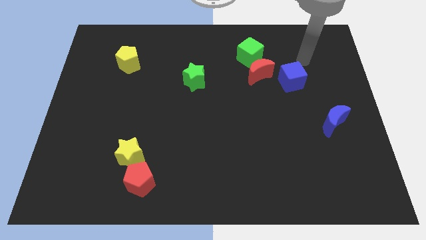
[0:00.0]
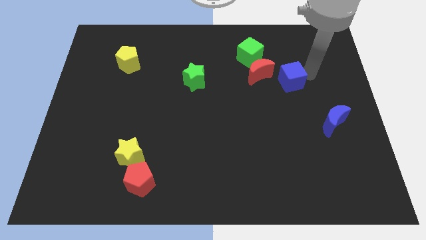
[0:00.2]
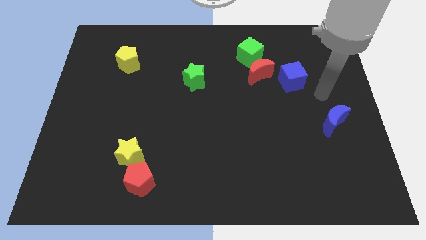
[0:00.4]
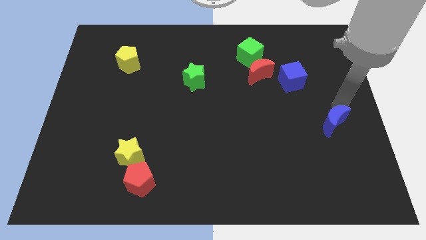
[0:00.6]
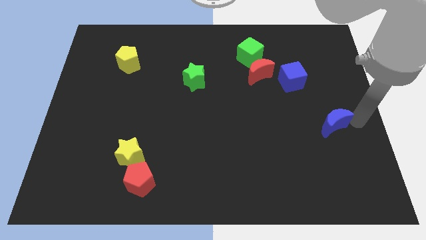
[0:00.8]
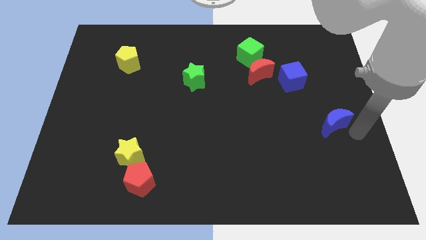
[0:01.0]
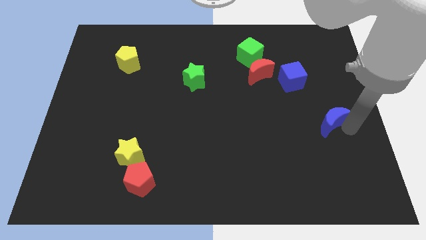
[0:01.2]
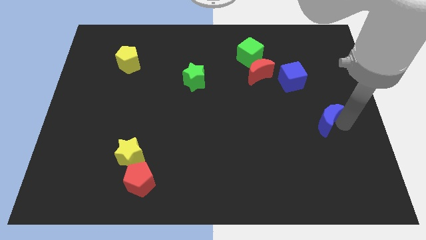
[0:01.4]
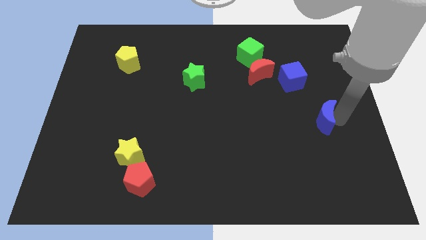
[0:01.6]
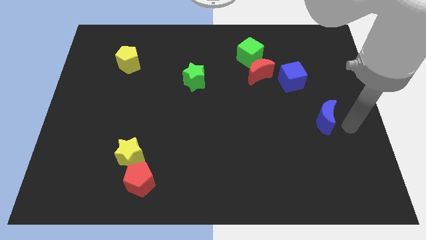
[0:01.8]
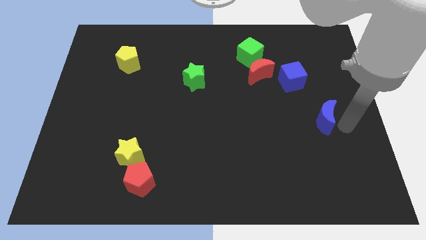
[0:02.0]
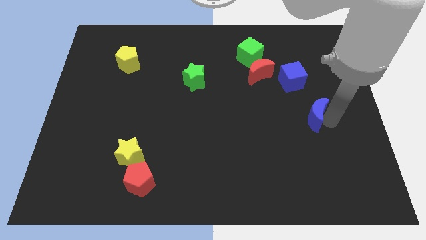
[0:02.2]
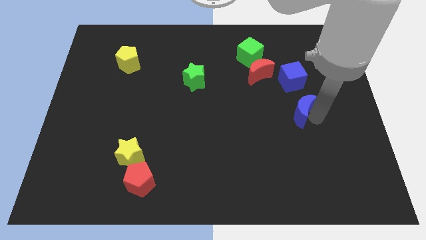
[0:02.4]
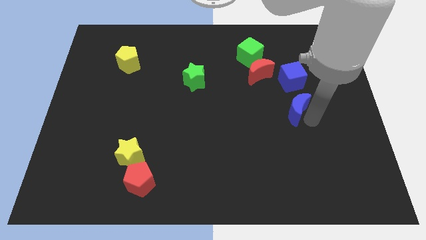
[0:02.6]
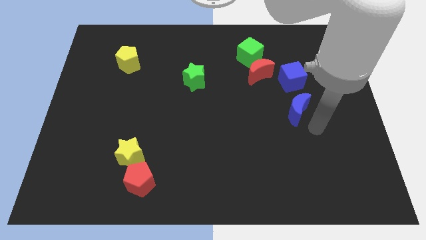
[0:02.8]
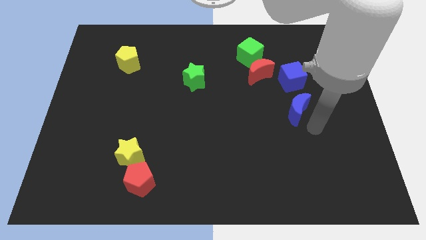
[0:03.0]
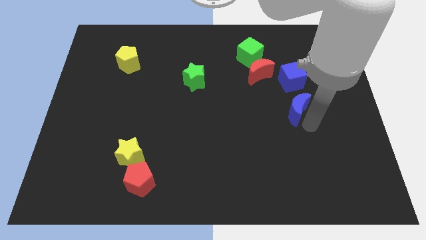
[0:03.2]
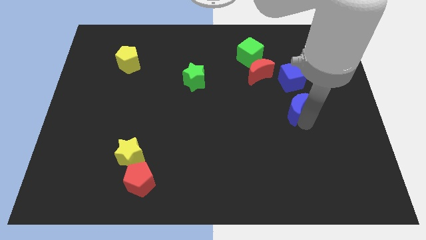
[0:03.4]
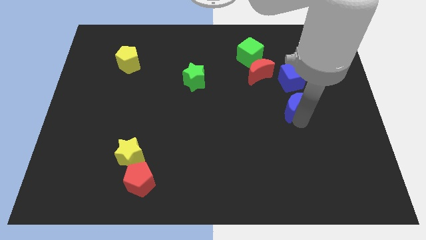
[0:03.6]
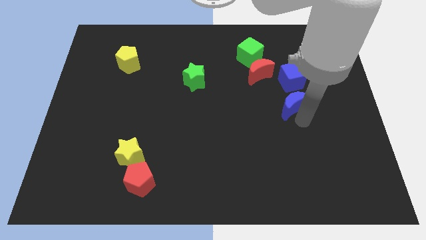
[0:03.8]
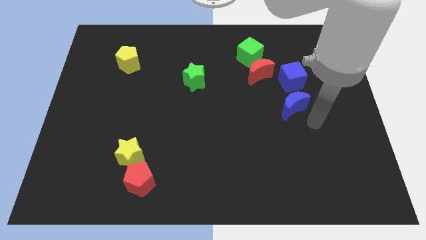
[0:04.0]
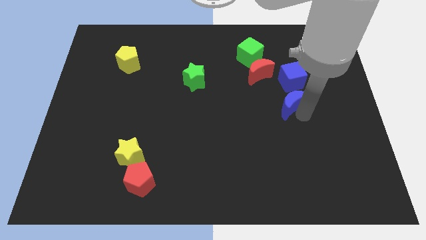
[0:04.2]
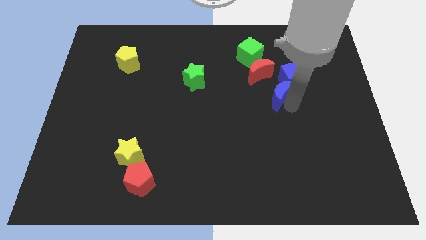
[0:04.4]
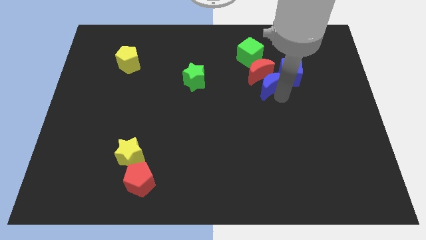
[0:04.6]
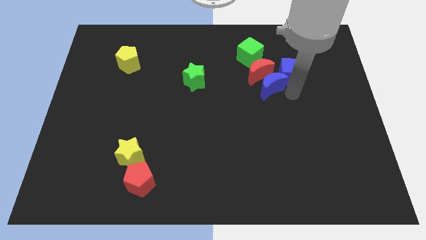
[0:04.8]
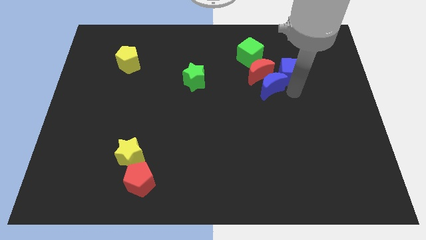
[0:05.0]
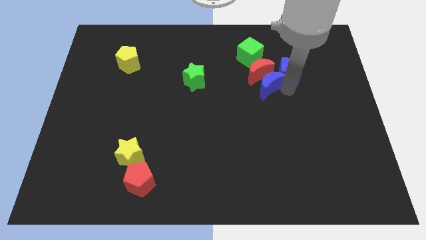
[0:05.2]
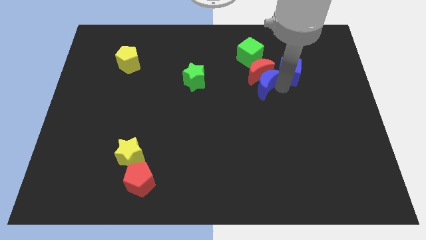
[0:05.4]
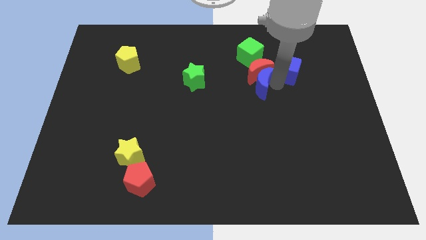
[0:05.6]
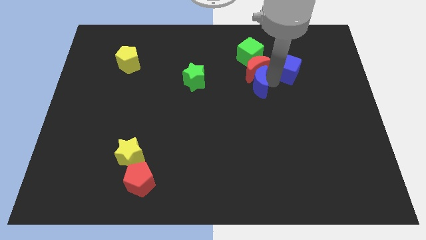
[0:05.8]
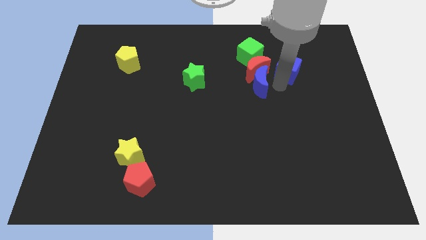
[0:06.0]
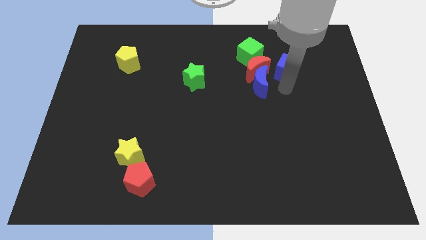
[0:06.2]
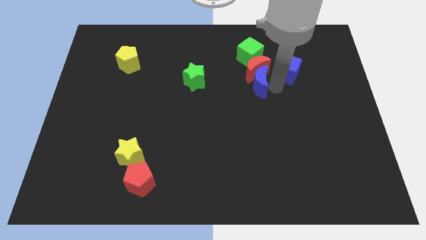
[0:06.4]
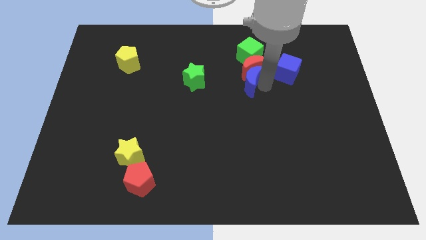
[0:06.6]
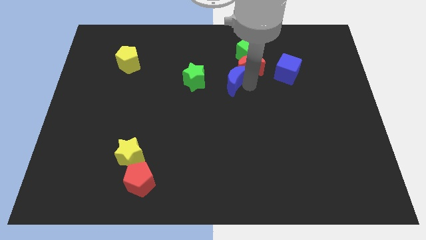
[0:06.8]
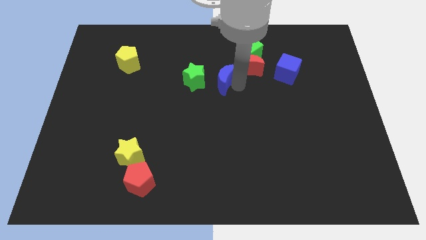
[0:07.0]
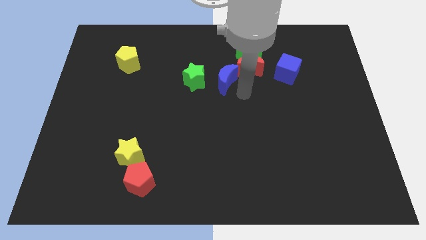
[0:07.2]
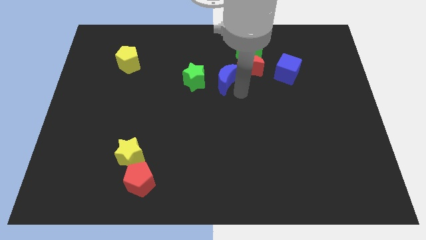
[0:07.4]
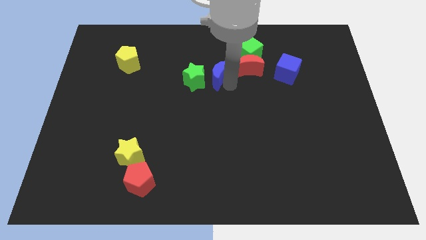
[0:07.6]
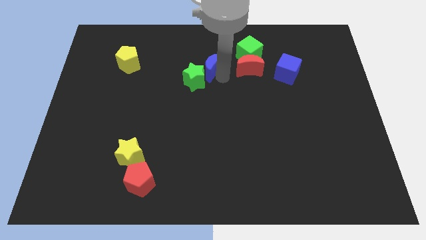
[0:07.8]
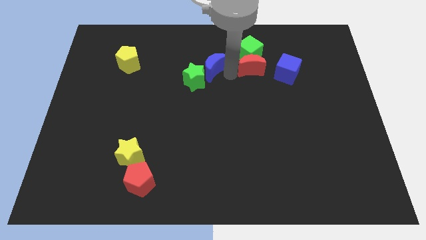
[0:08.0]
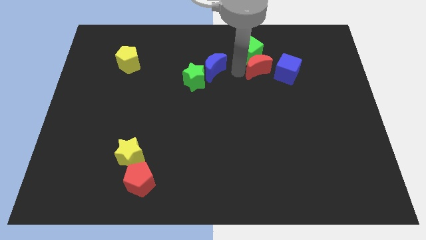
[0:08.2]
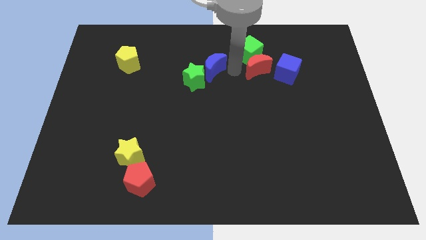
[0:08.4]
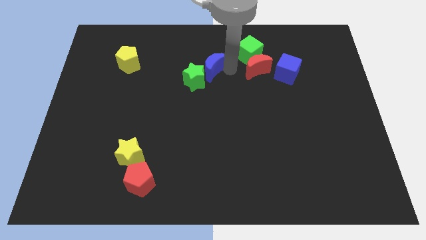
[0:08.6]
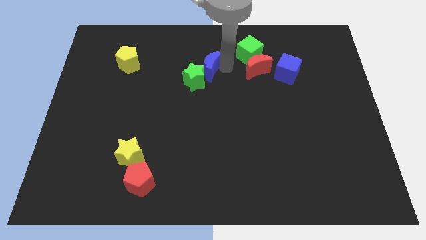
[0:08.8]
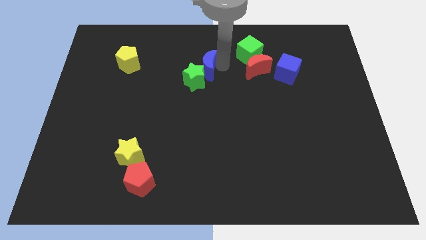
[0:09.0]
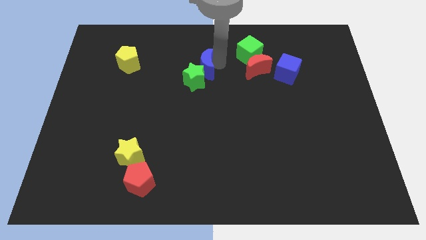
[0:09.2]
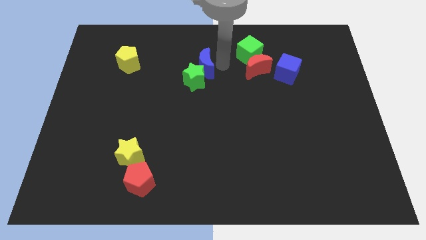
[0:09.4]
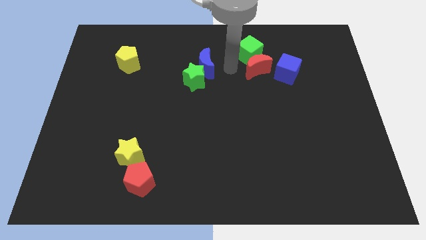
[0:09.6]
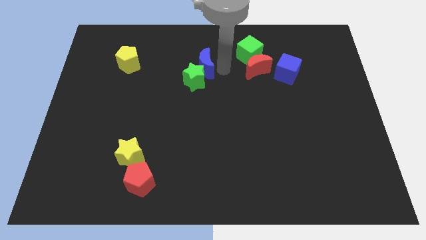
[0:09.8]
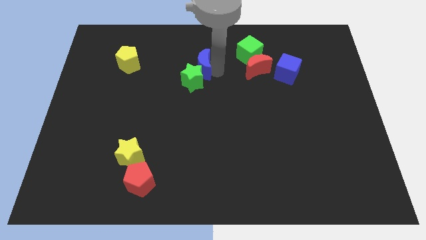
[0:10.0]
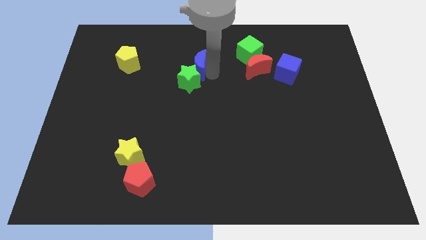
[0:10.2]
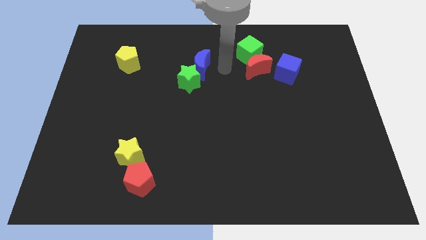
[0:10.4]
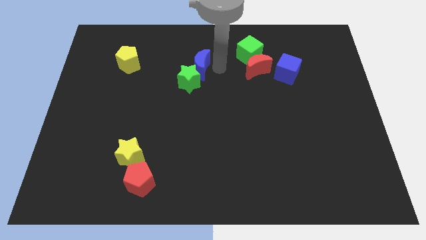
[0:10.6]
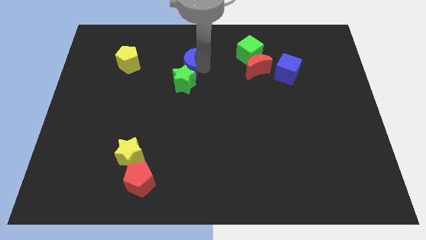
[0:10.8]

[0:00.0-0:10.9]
slide the blue moon to the top left of the green star

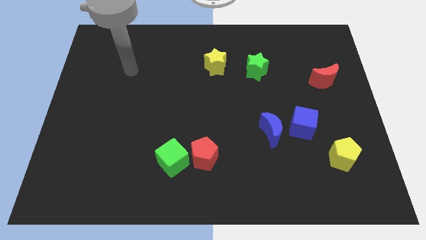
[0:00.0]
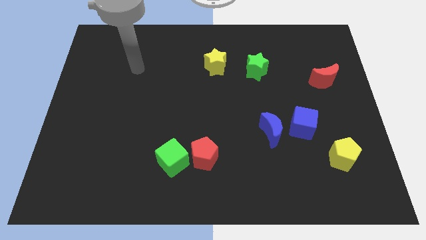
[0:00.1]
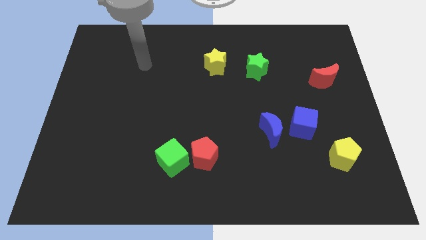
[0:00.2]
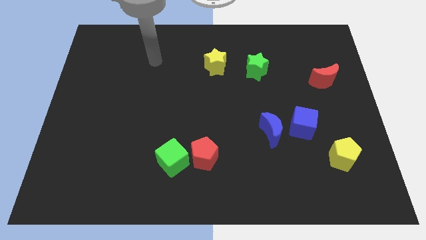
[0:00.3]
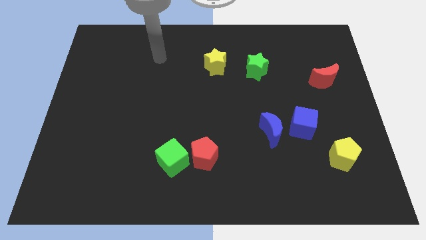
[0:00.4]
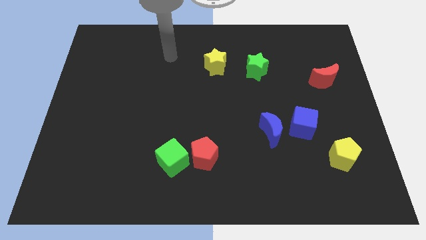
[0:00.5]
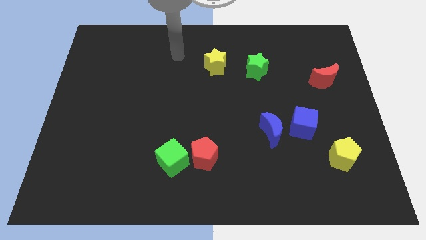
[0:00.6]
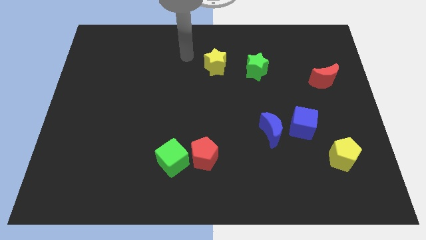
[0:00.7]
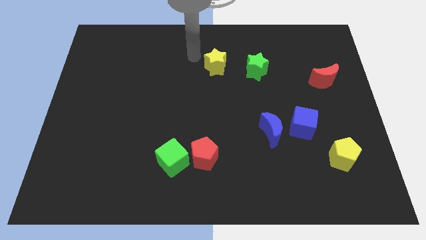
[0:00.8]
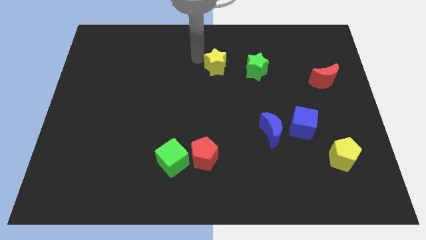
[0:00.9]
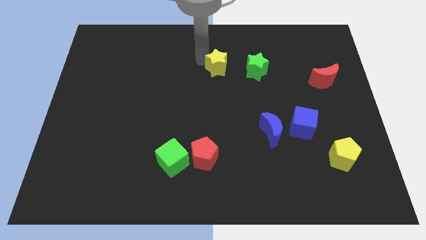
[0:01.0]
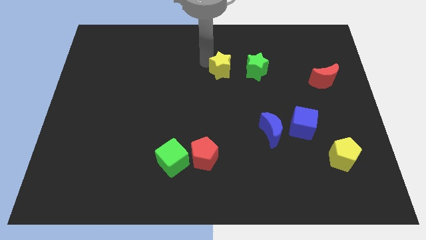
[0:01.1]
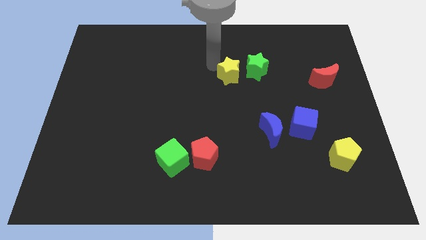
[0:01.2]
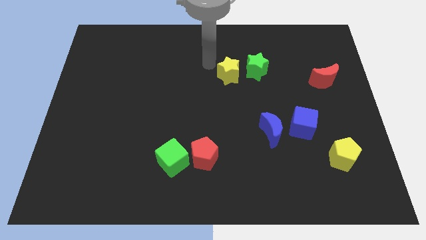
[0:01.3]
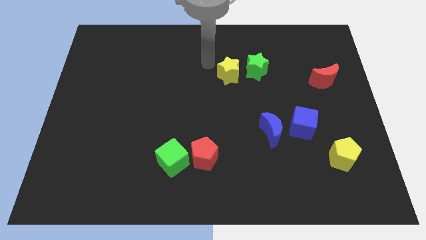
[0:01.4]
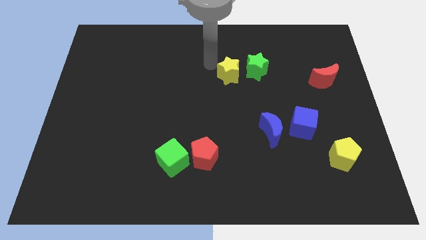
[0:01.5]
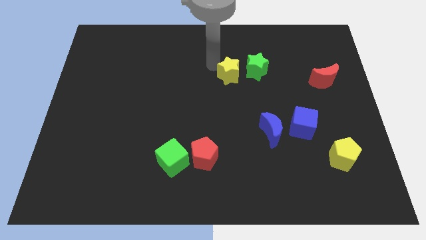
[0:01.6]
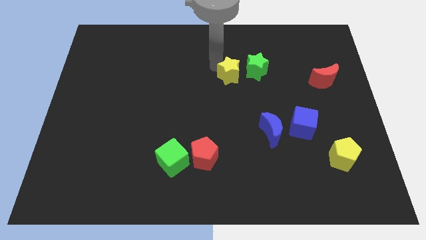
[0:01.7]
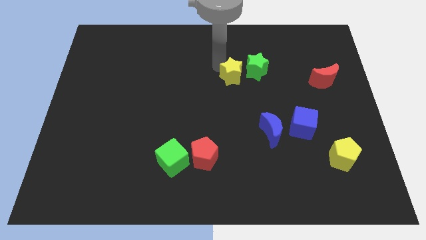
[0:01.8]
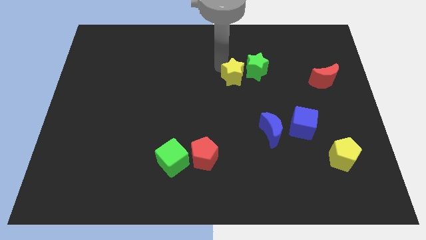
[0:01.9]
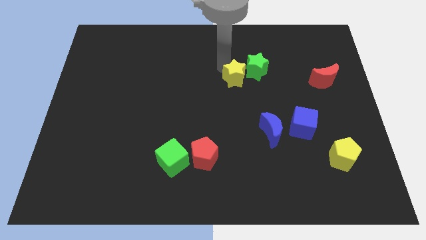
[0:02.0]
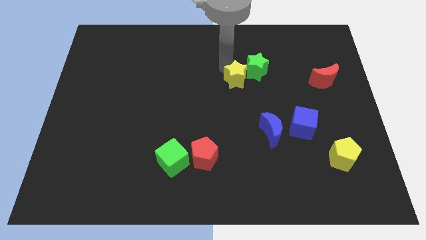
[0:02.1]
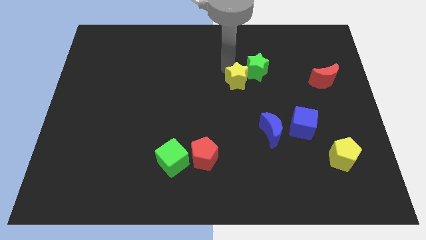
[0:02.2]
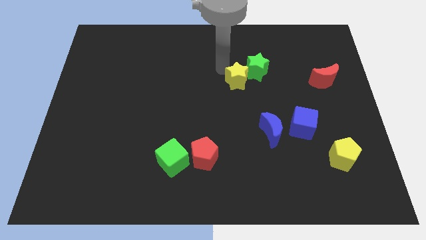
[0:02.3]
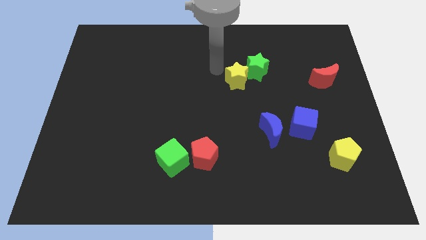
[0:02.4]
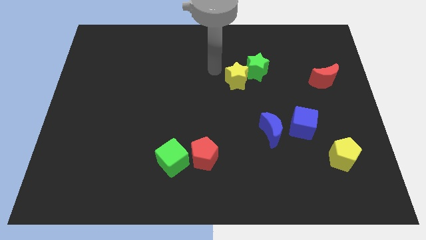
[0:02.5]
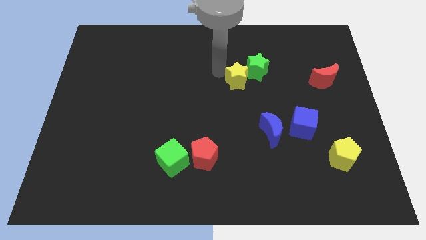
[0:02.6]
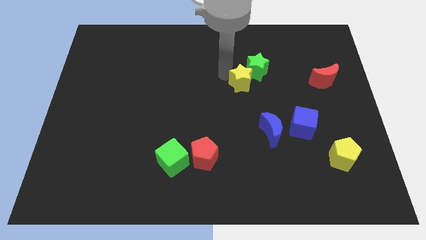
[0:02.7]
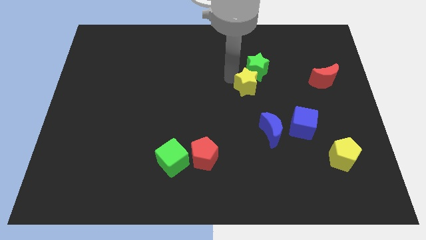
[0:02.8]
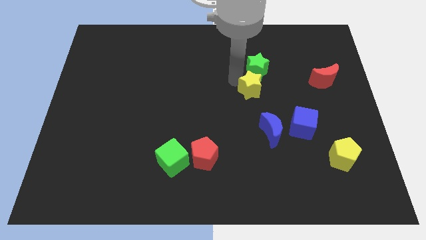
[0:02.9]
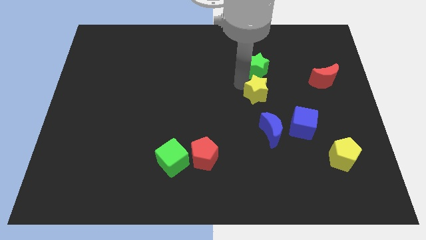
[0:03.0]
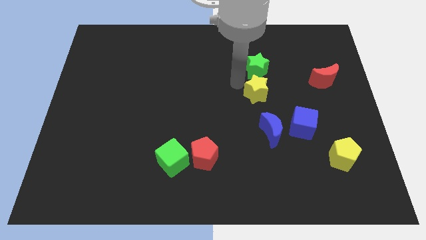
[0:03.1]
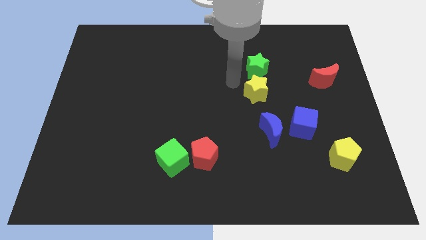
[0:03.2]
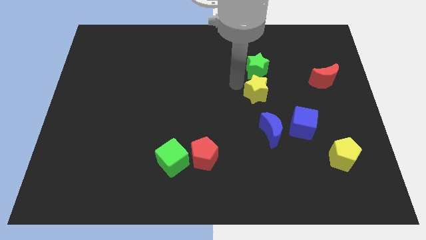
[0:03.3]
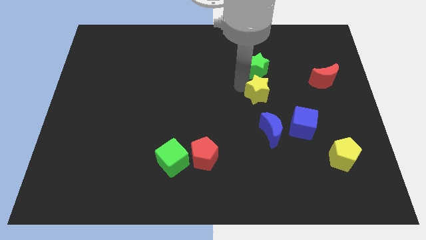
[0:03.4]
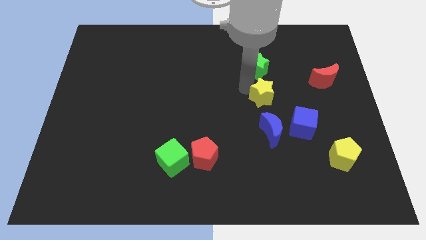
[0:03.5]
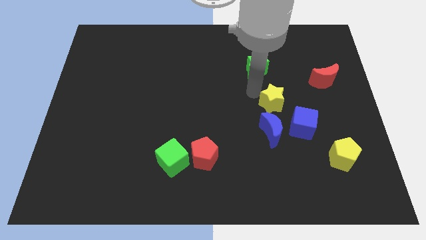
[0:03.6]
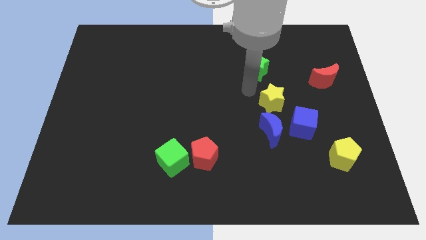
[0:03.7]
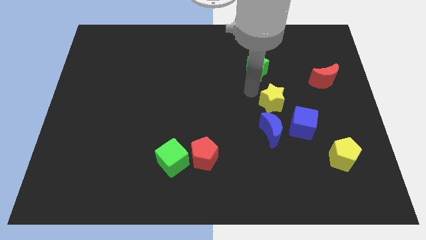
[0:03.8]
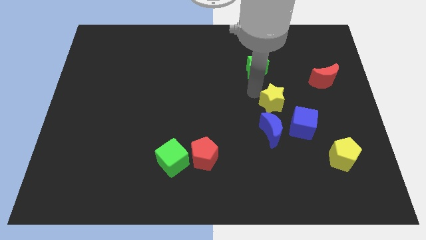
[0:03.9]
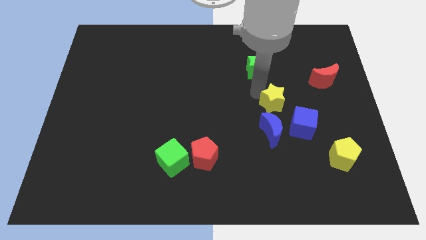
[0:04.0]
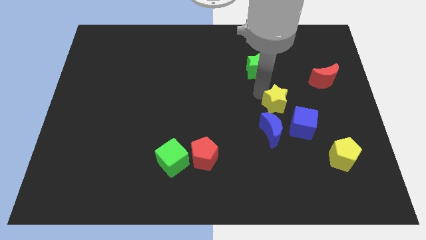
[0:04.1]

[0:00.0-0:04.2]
put the yellow star to the top right of the blue moon
